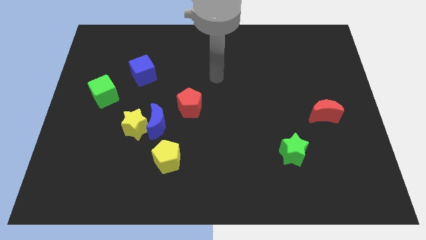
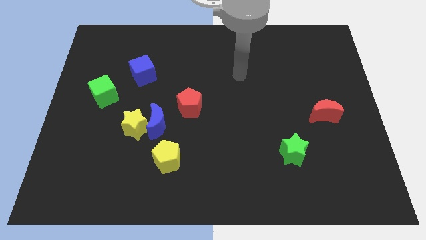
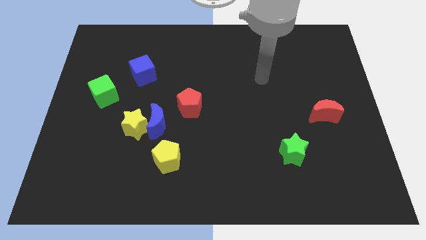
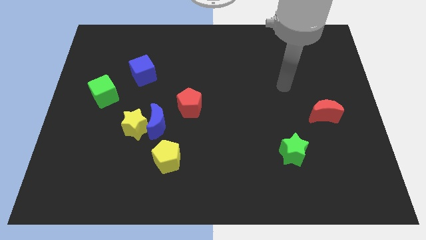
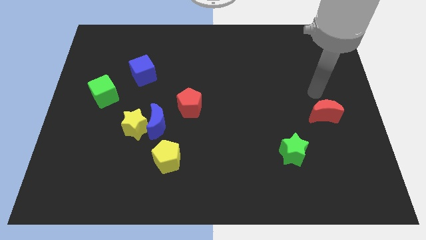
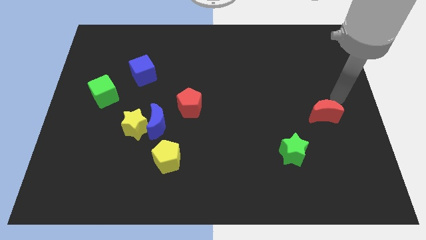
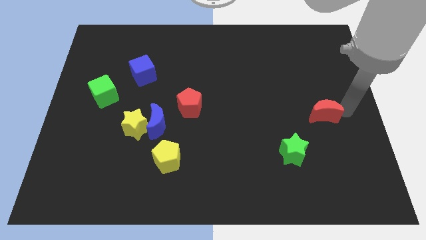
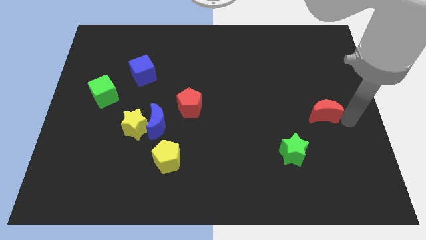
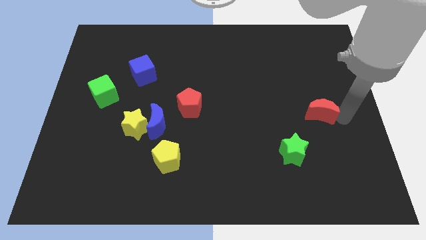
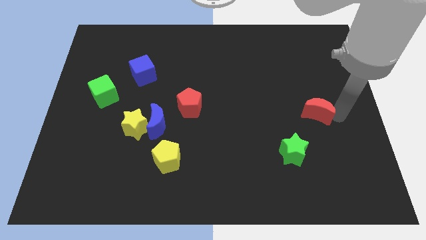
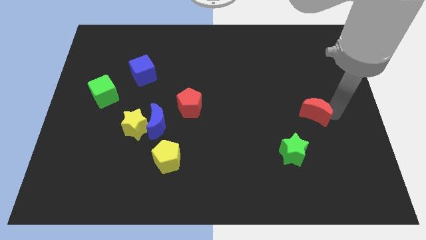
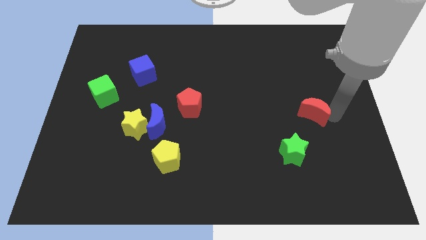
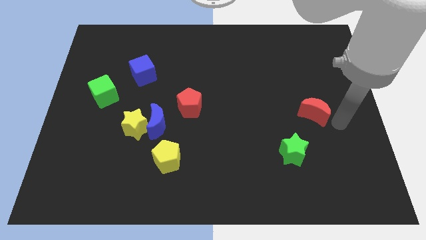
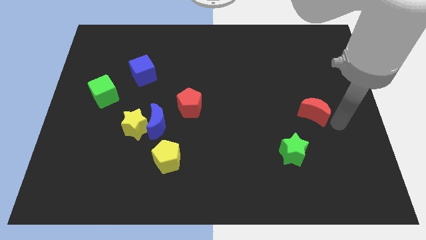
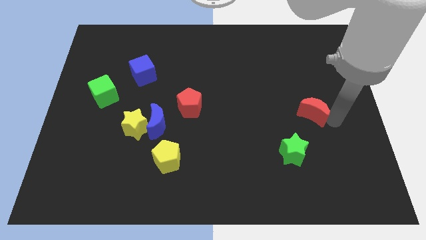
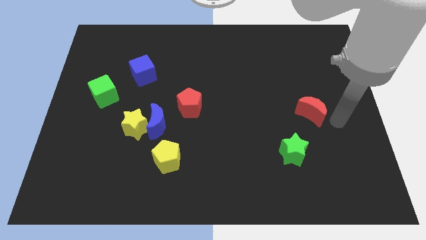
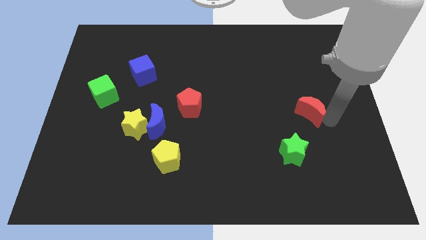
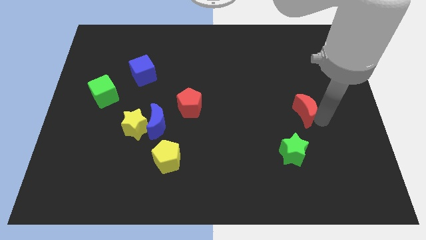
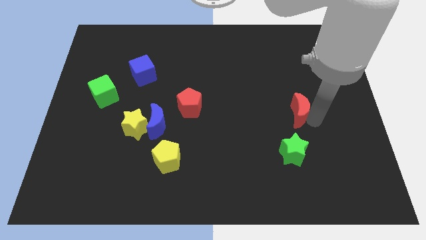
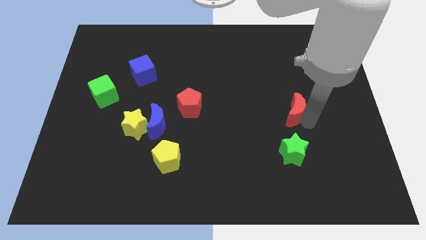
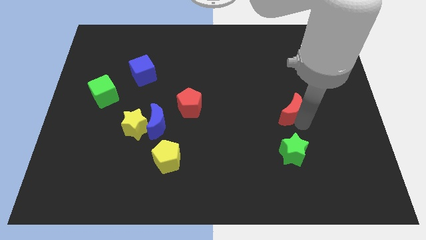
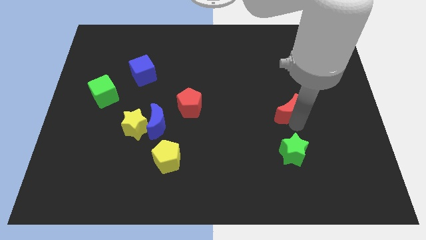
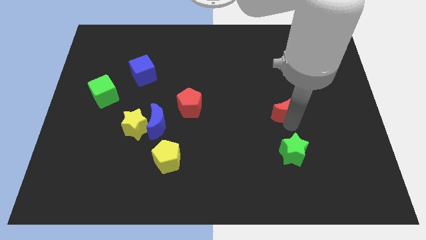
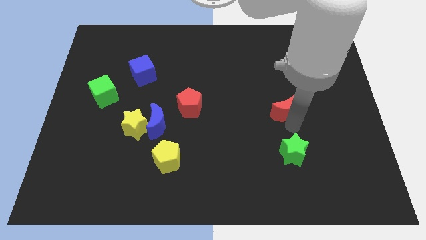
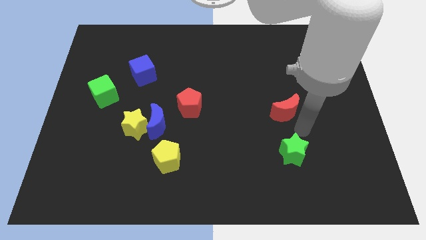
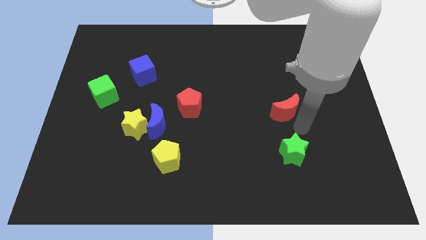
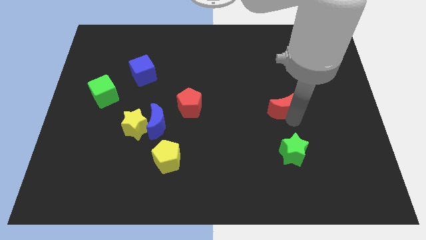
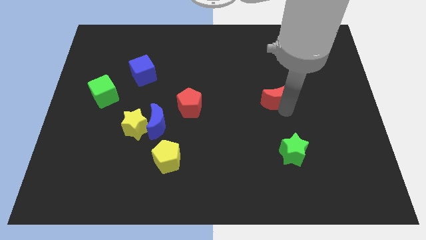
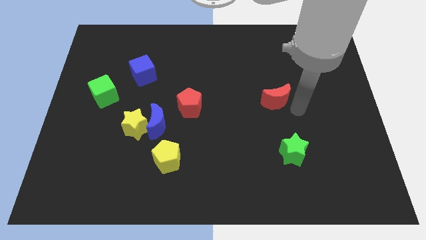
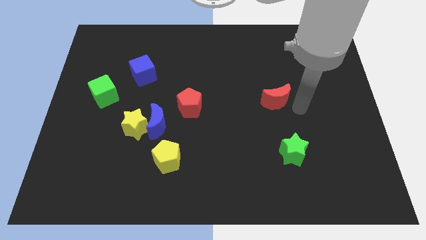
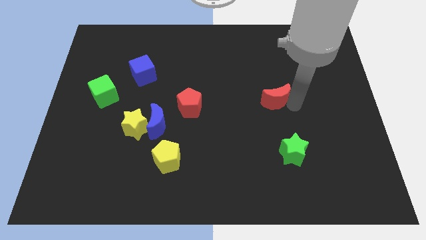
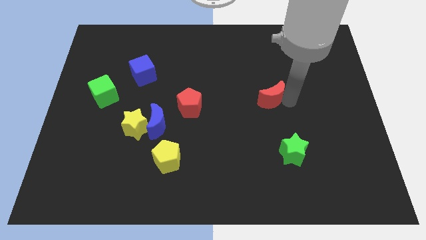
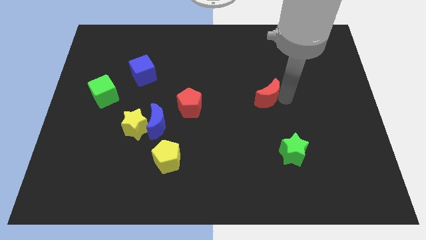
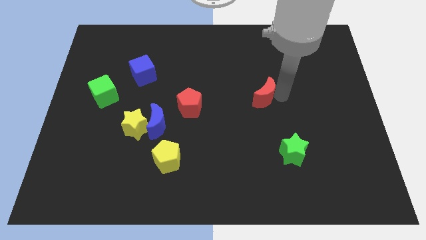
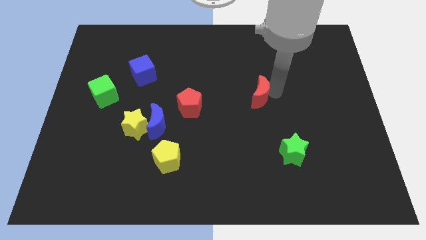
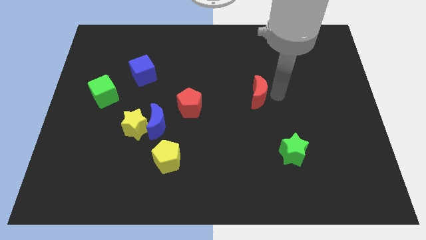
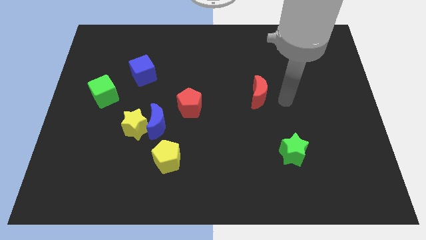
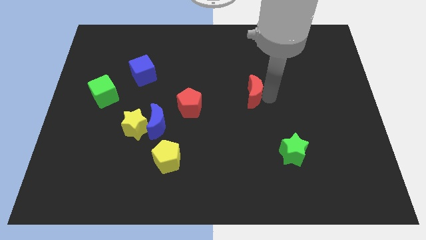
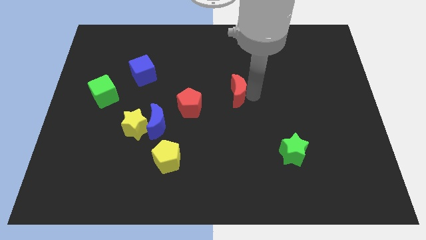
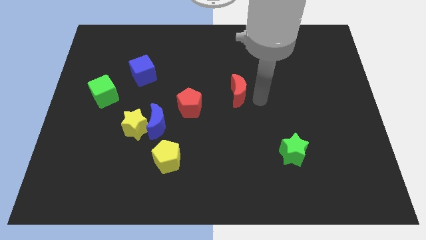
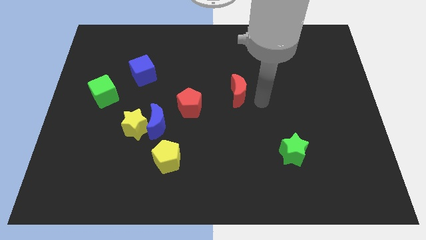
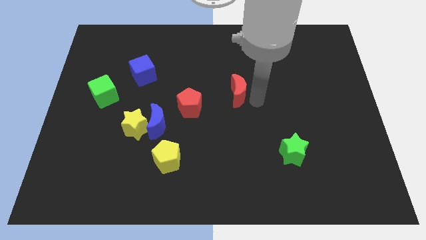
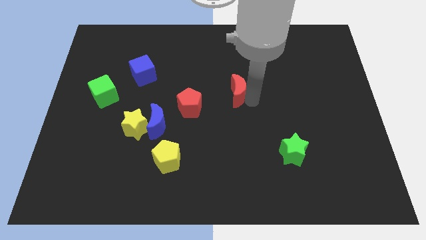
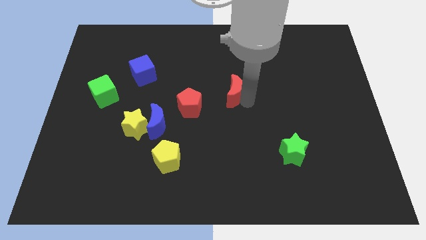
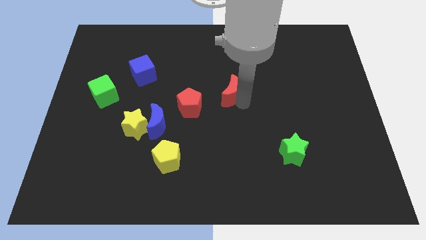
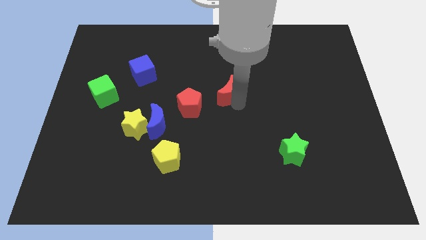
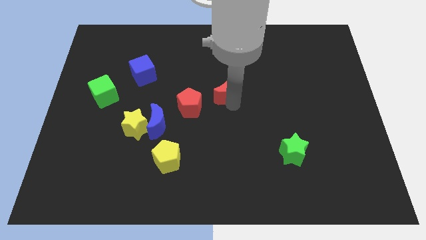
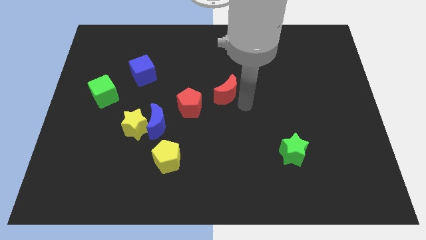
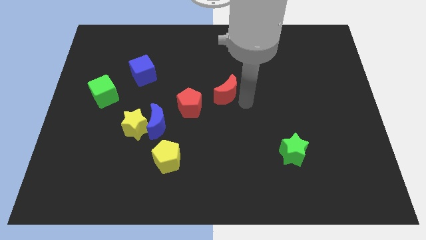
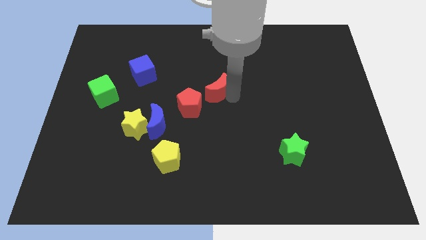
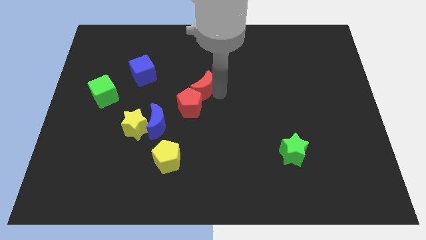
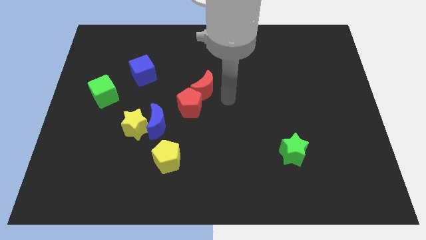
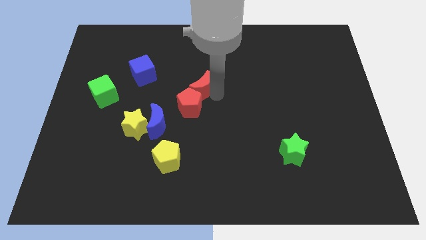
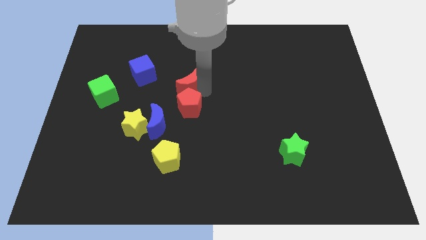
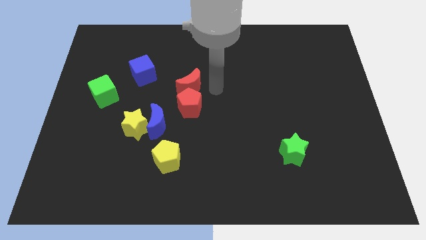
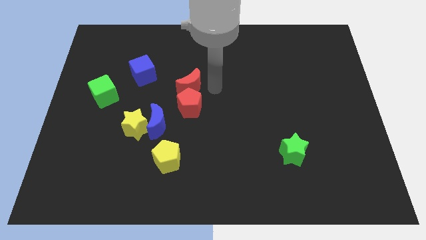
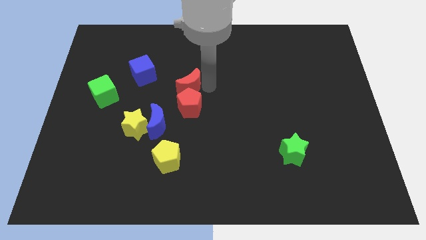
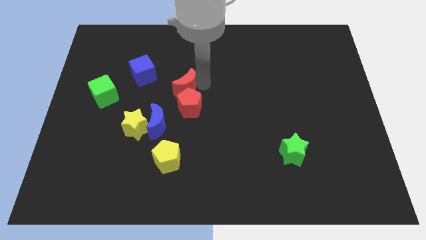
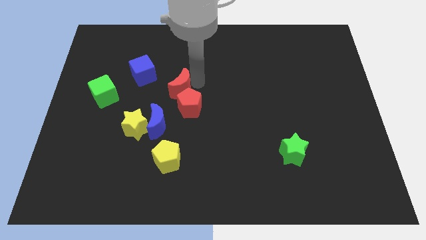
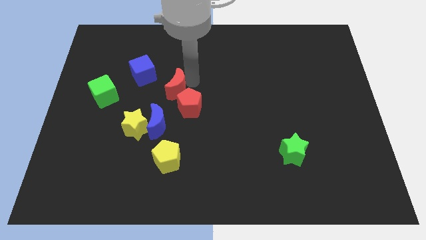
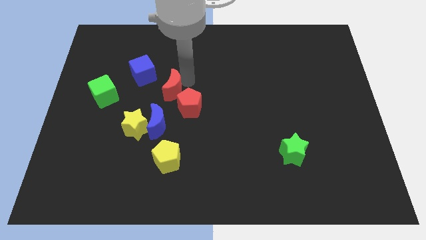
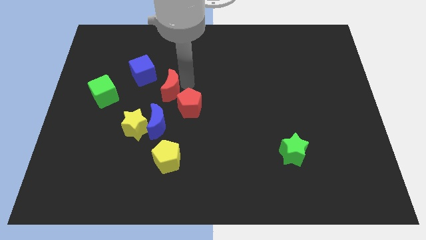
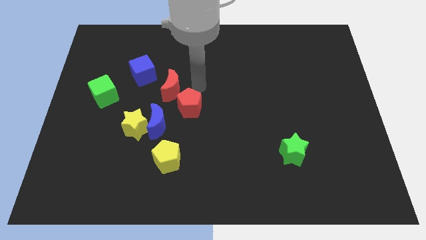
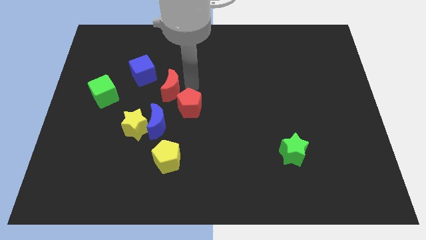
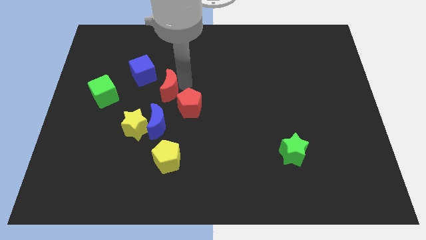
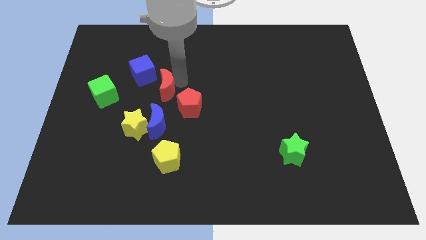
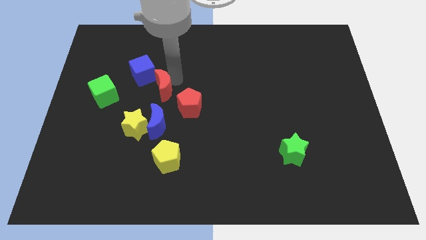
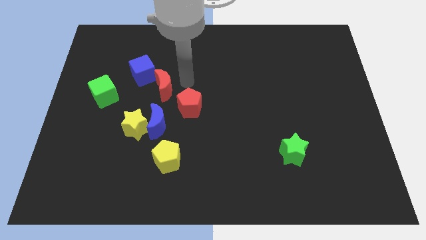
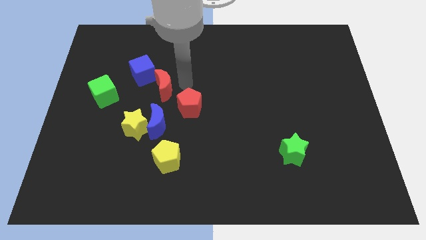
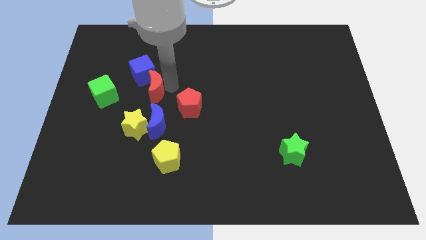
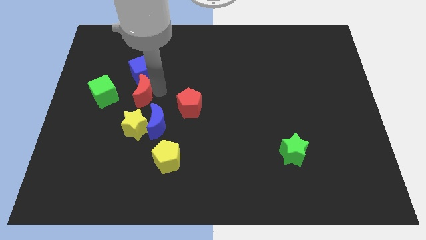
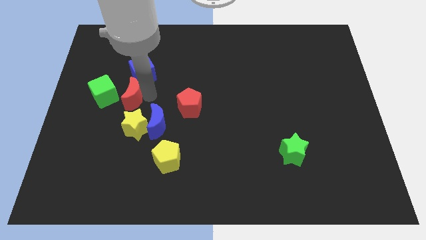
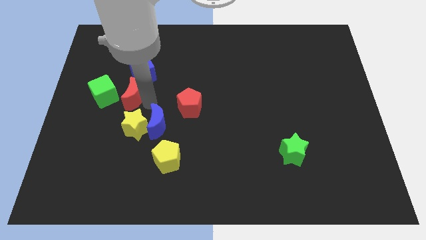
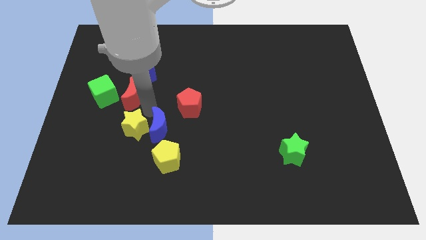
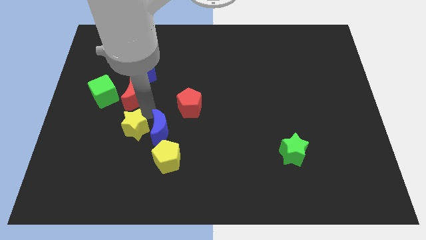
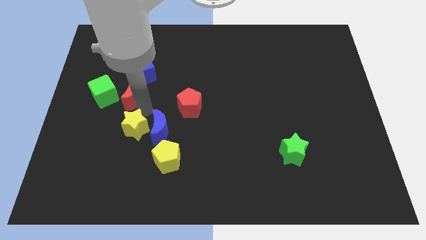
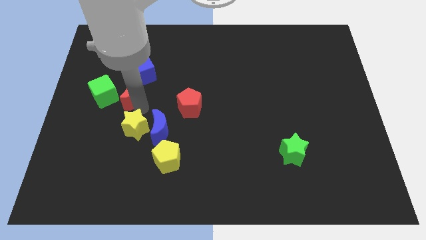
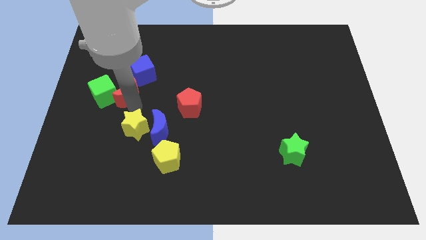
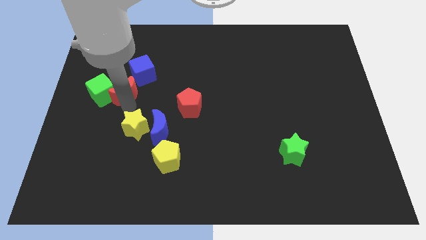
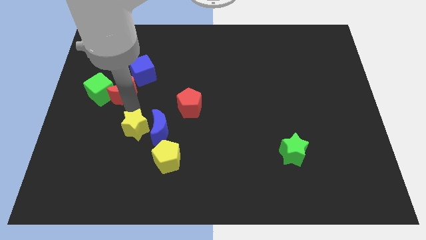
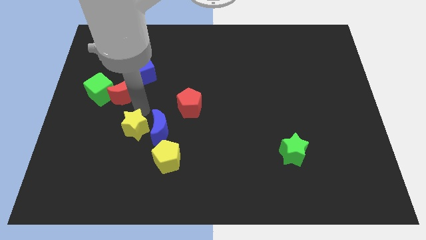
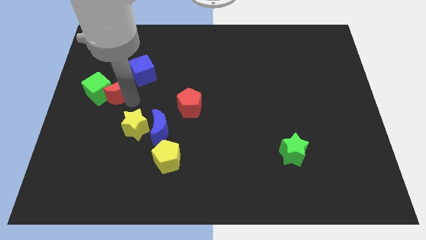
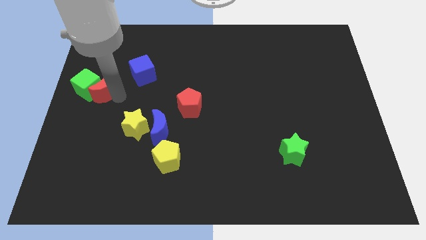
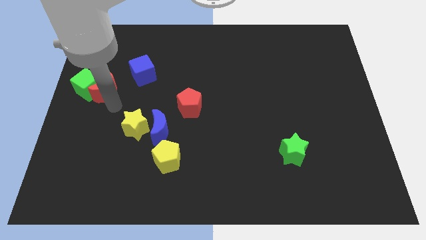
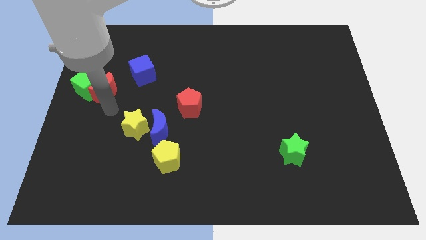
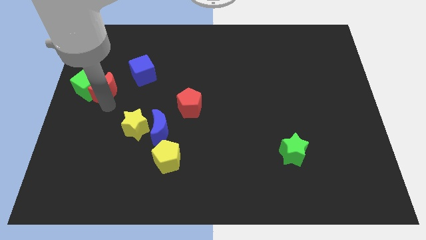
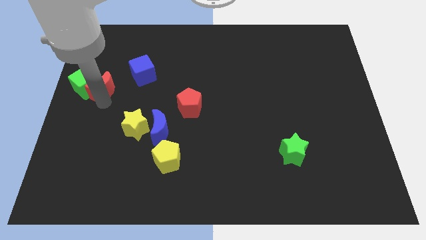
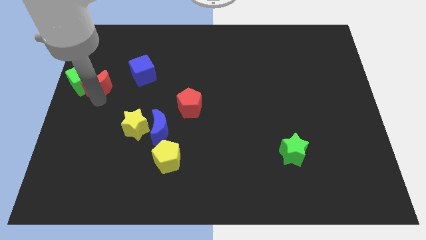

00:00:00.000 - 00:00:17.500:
put the red moon left of the blue cube
